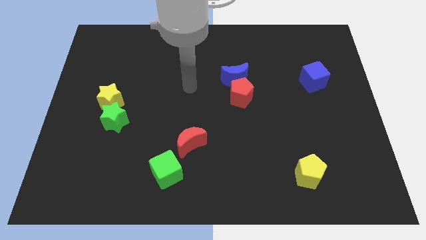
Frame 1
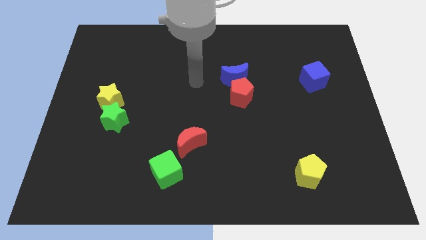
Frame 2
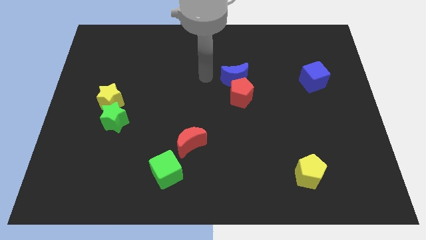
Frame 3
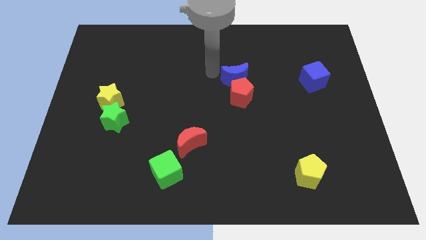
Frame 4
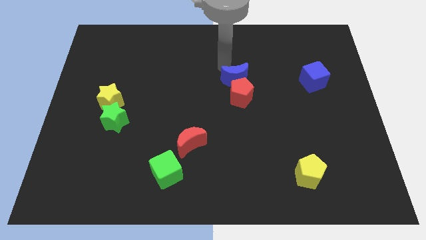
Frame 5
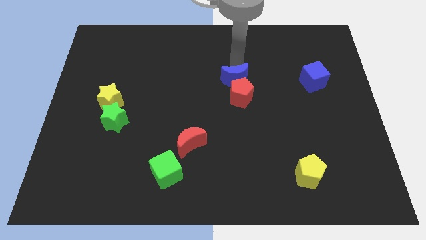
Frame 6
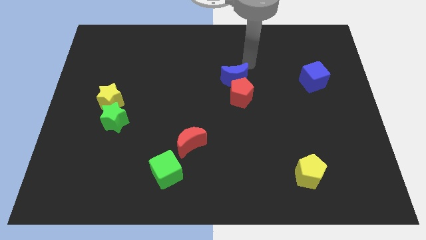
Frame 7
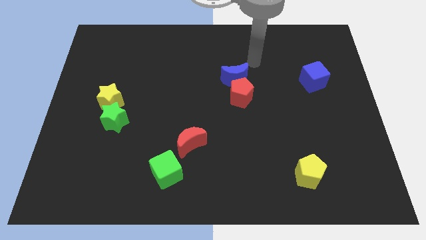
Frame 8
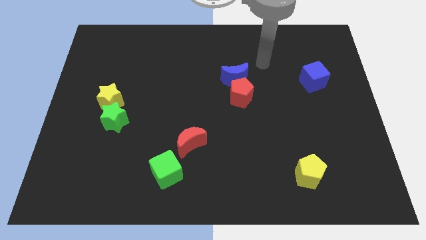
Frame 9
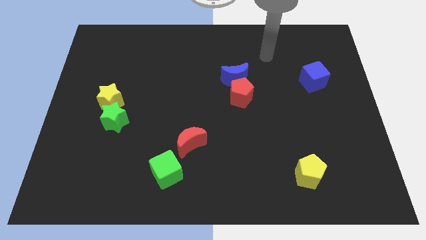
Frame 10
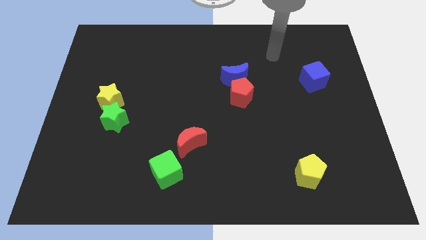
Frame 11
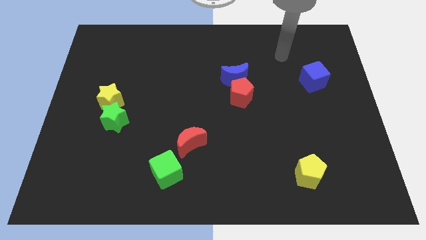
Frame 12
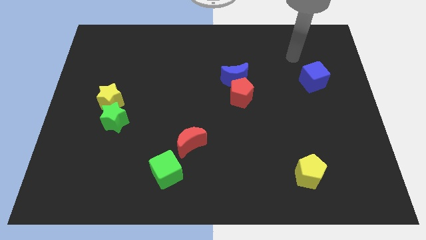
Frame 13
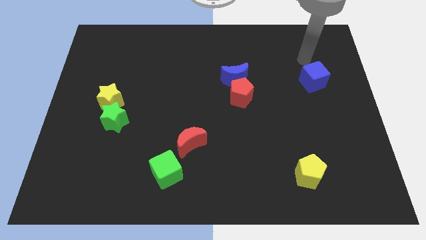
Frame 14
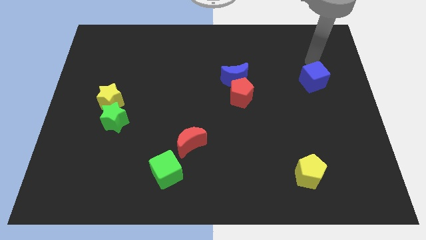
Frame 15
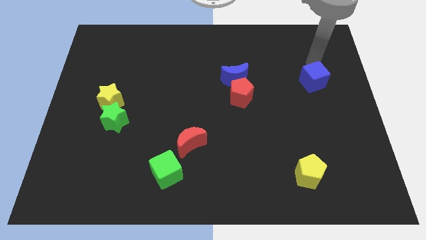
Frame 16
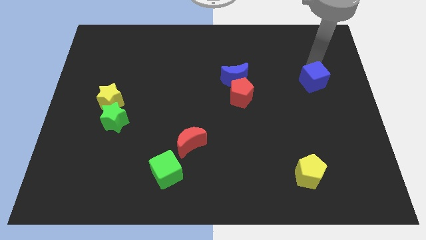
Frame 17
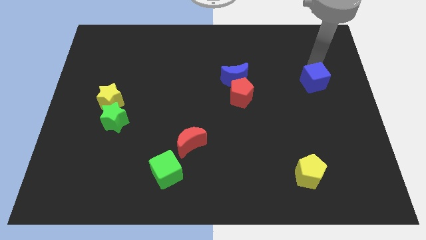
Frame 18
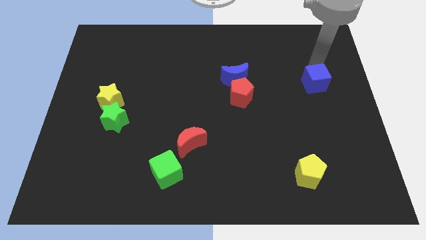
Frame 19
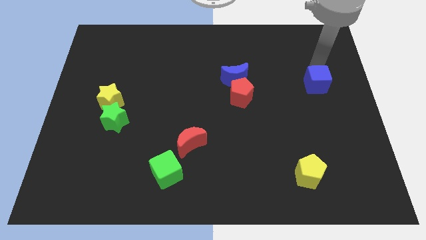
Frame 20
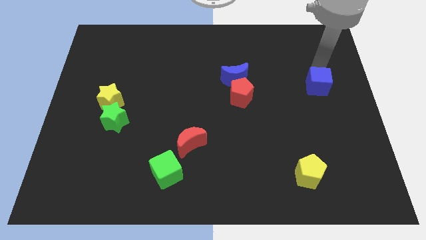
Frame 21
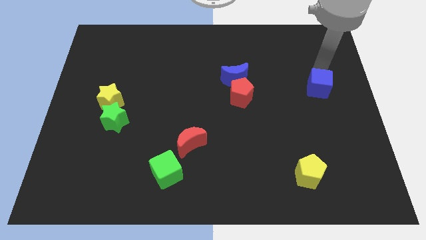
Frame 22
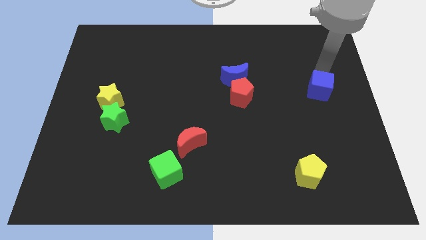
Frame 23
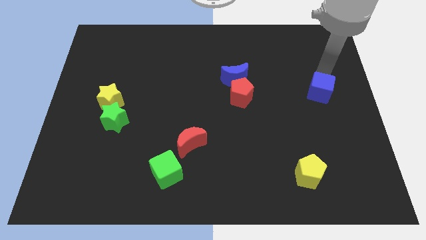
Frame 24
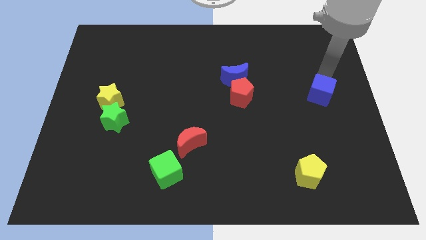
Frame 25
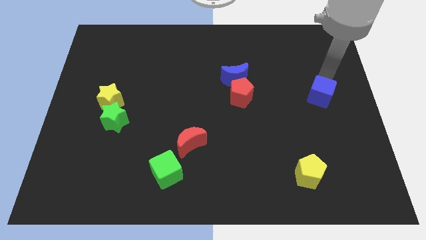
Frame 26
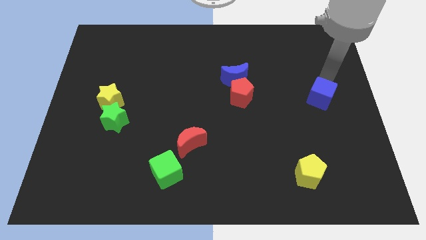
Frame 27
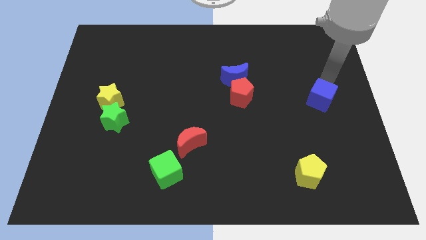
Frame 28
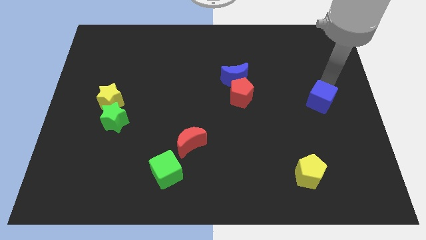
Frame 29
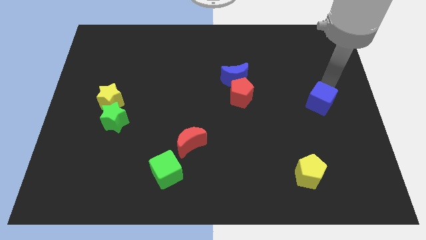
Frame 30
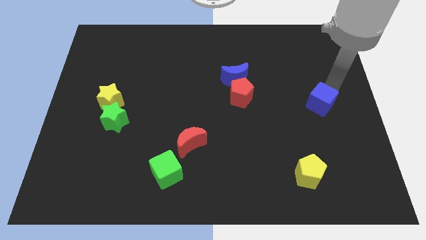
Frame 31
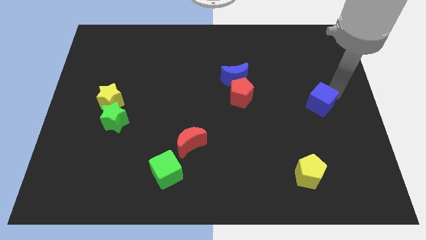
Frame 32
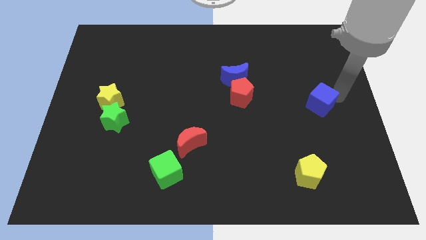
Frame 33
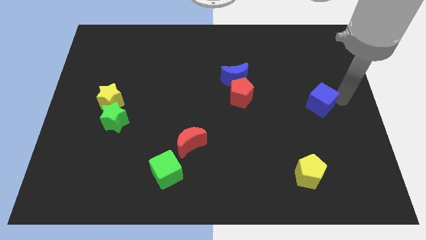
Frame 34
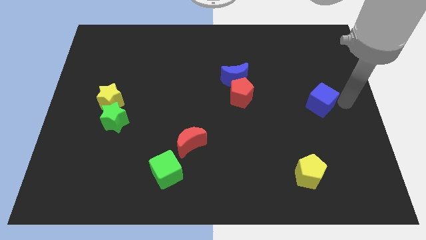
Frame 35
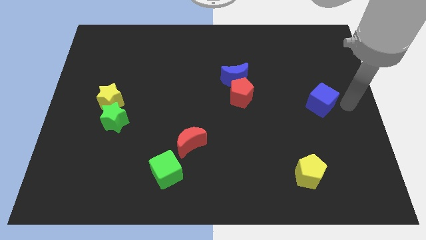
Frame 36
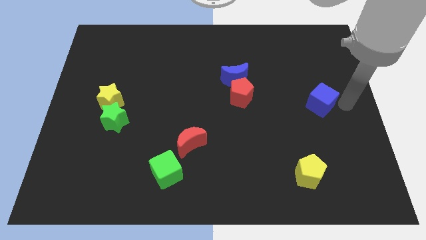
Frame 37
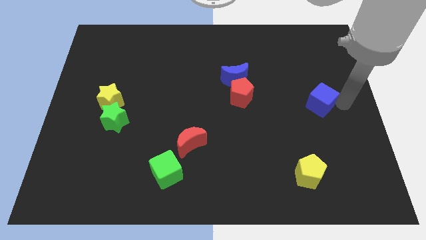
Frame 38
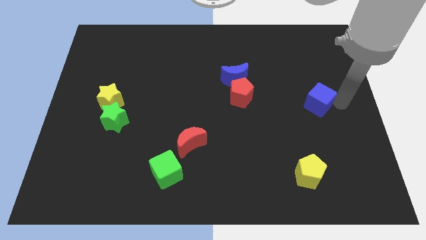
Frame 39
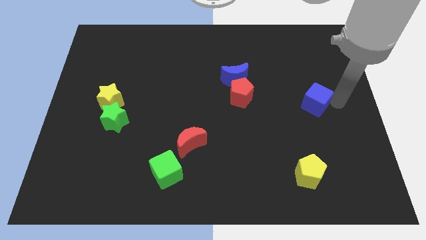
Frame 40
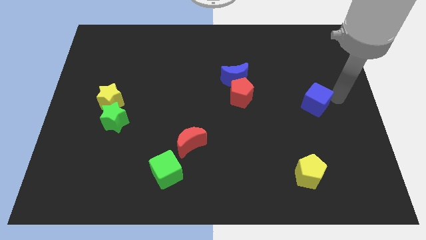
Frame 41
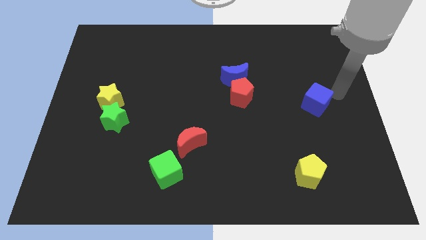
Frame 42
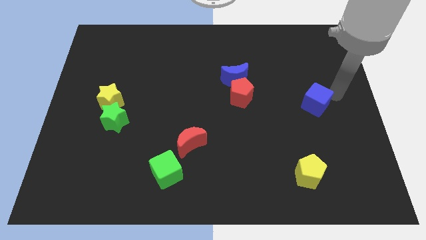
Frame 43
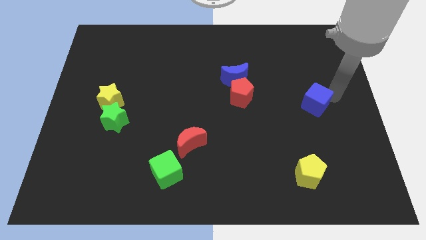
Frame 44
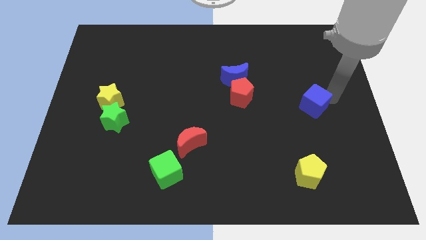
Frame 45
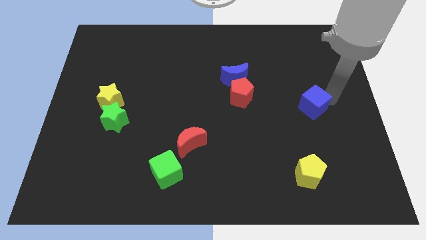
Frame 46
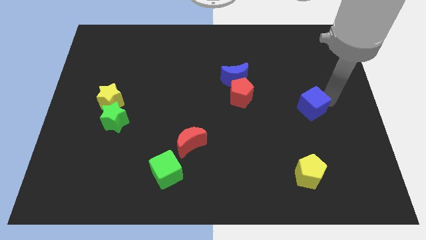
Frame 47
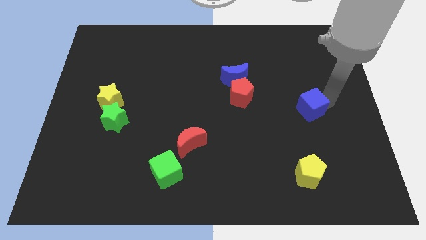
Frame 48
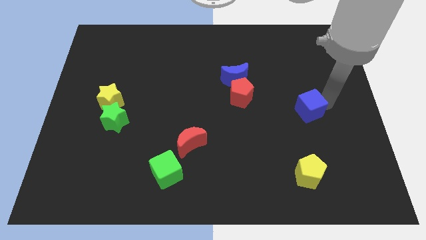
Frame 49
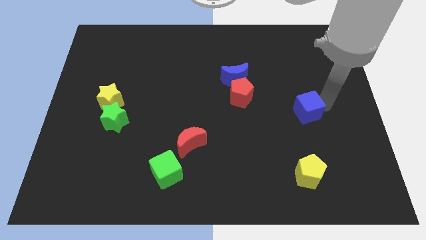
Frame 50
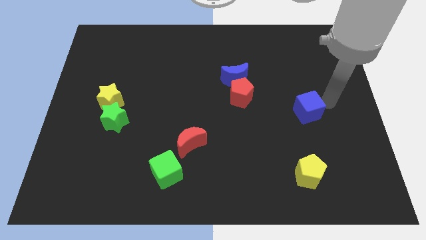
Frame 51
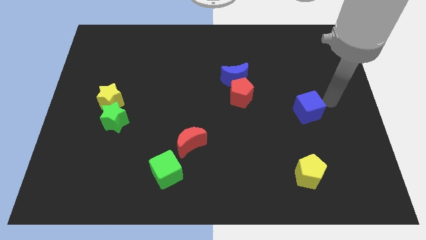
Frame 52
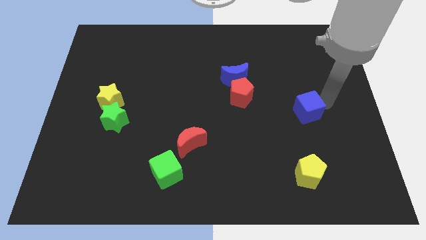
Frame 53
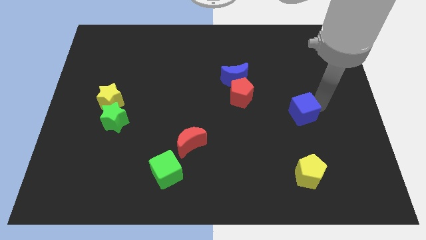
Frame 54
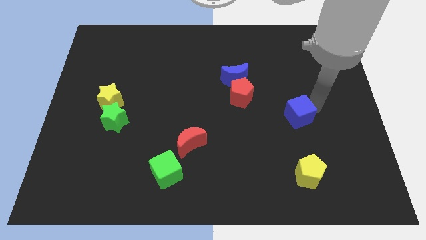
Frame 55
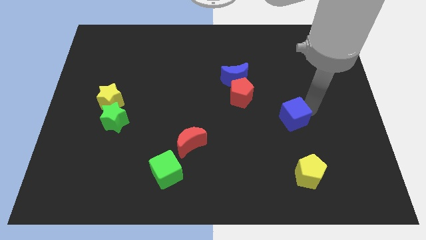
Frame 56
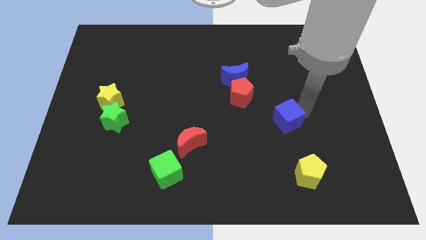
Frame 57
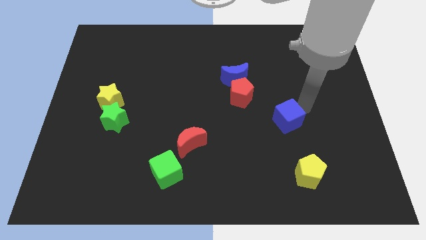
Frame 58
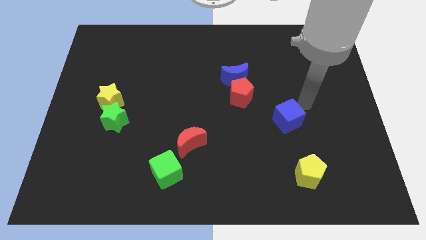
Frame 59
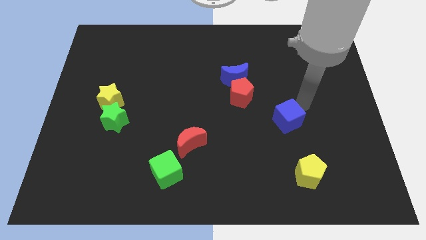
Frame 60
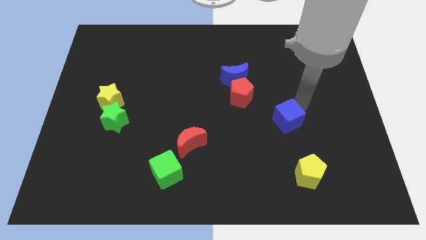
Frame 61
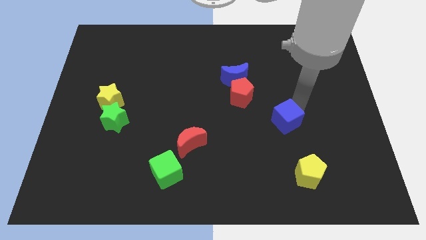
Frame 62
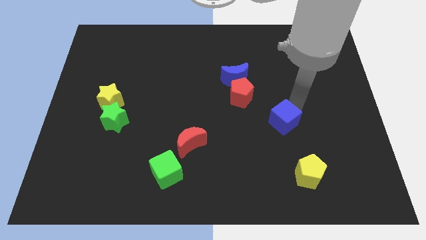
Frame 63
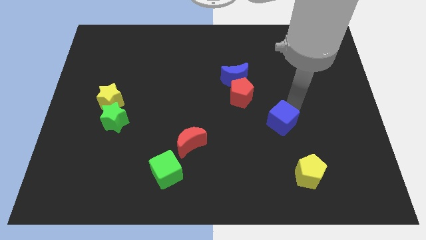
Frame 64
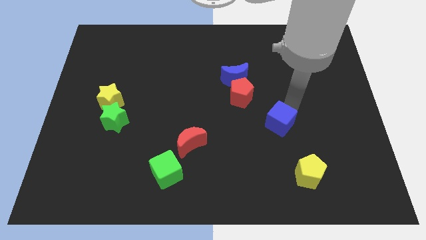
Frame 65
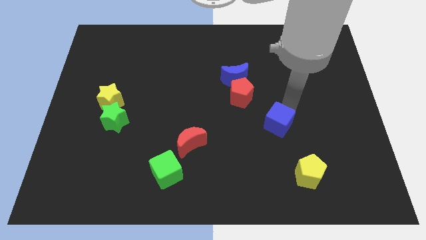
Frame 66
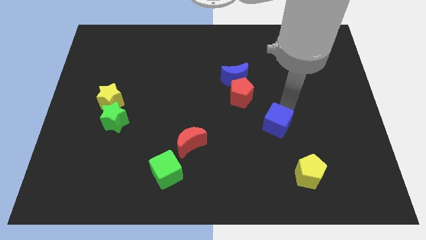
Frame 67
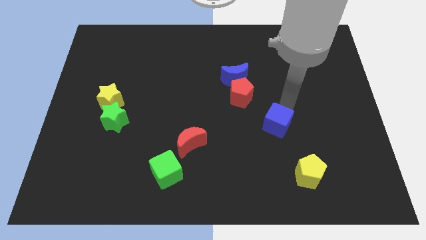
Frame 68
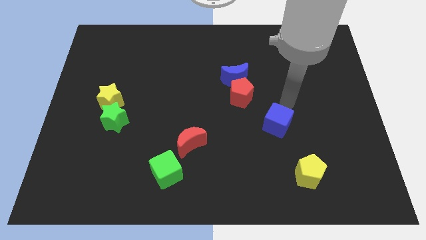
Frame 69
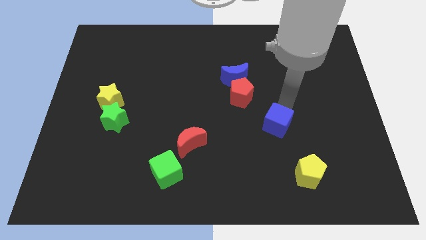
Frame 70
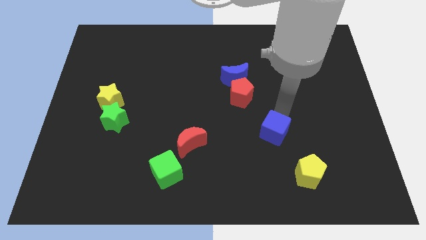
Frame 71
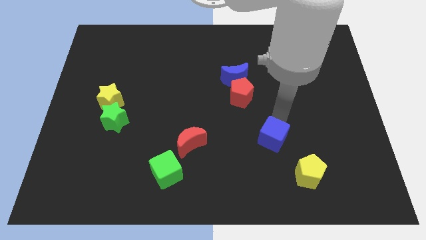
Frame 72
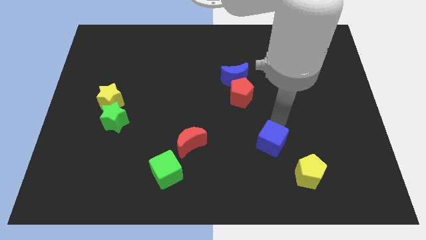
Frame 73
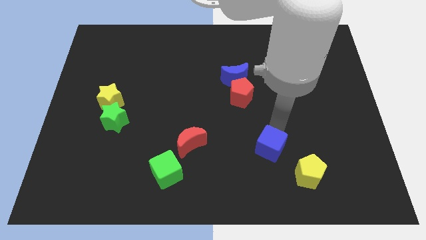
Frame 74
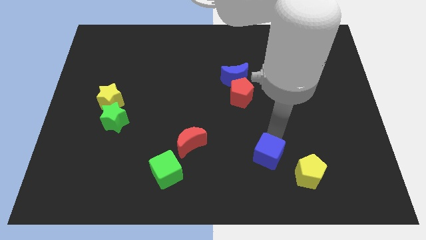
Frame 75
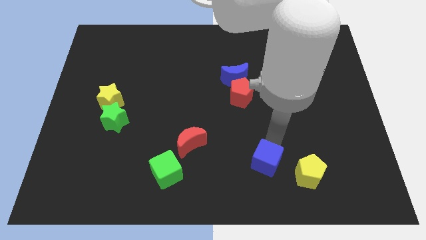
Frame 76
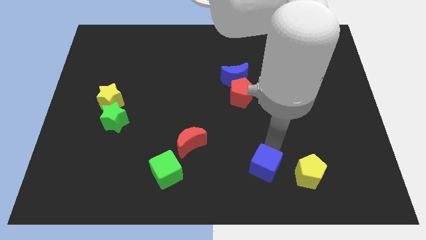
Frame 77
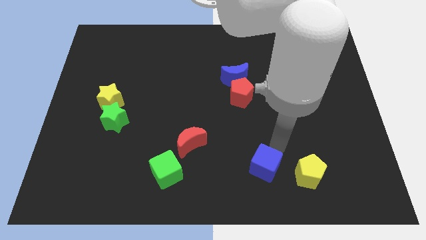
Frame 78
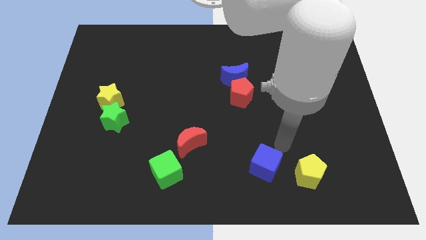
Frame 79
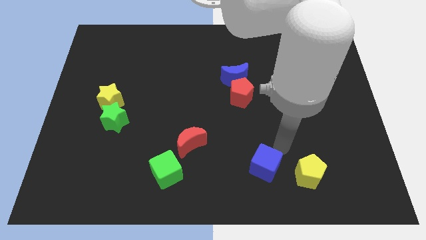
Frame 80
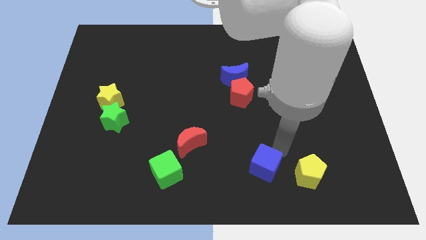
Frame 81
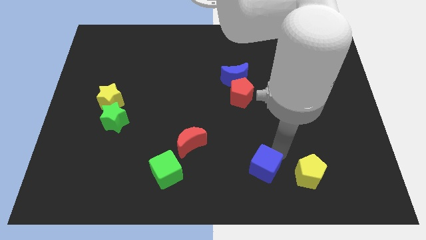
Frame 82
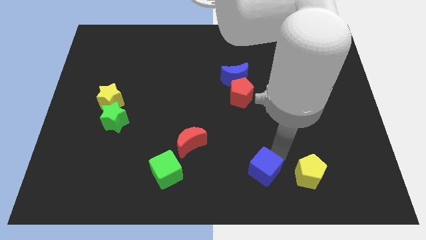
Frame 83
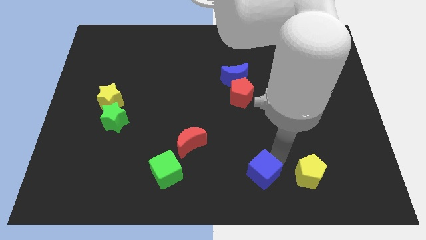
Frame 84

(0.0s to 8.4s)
put the blue cube to the bottom side
